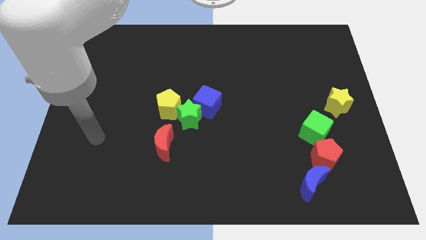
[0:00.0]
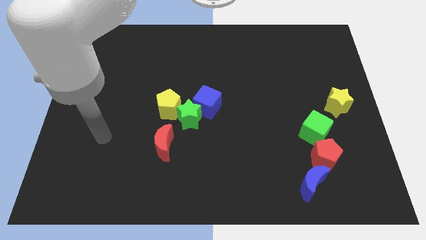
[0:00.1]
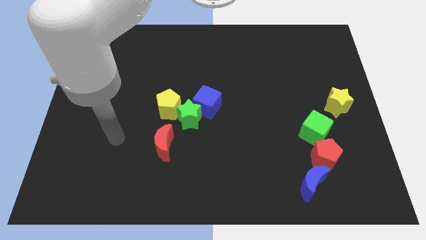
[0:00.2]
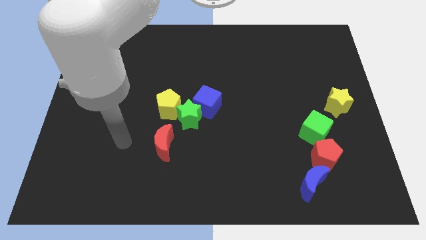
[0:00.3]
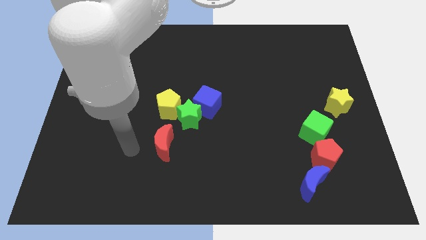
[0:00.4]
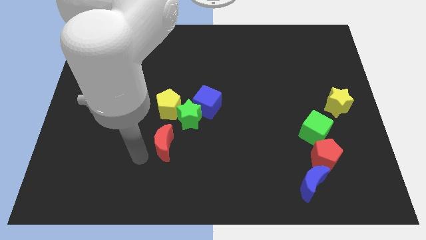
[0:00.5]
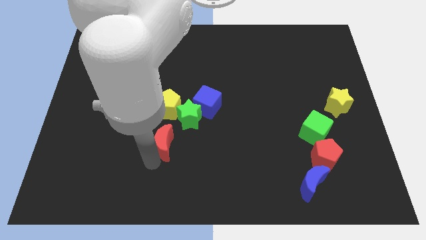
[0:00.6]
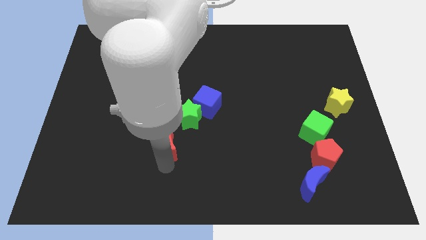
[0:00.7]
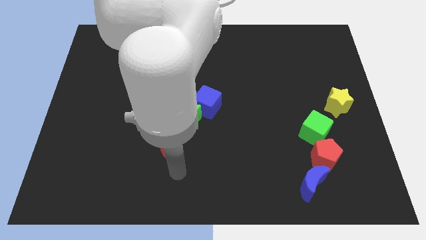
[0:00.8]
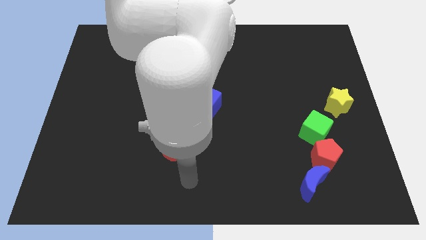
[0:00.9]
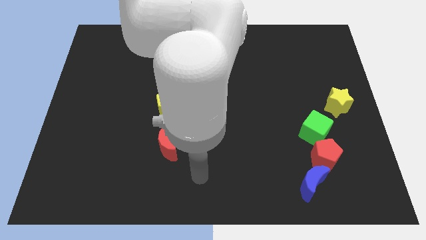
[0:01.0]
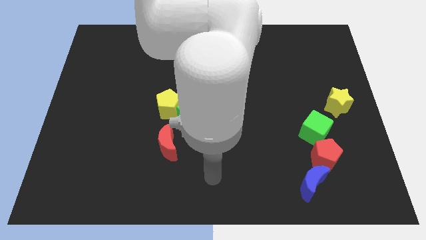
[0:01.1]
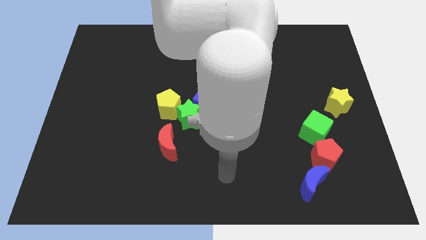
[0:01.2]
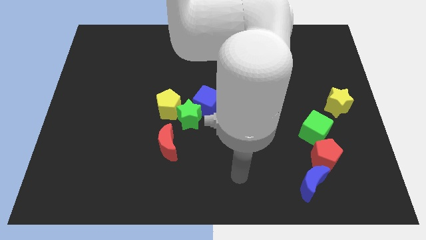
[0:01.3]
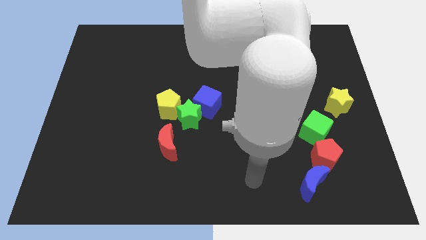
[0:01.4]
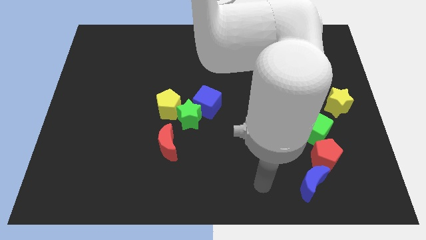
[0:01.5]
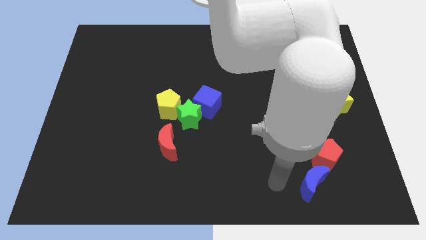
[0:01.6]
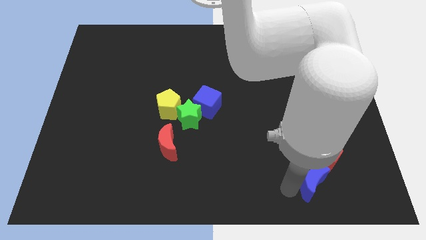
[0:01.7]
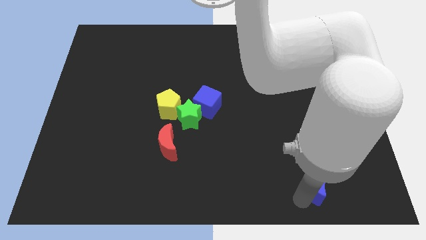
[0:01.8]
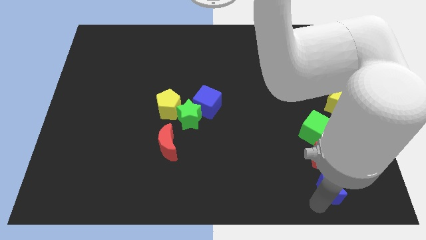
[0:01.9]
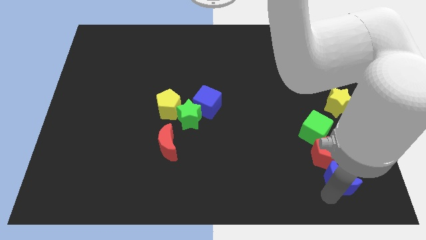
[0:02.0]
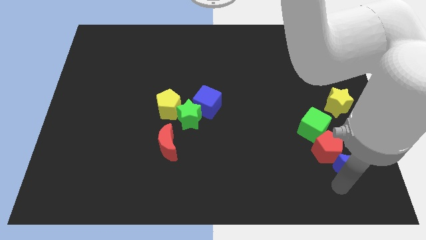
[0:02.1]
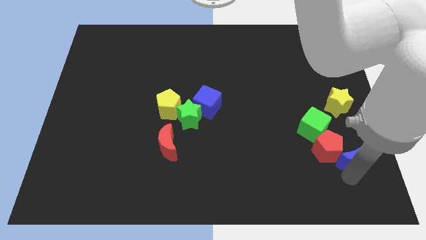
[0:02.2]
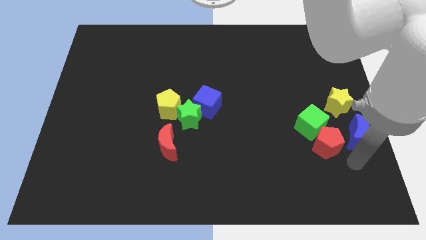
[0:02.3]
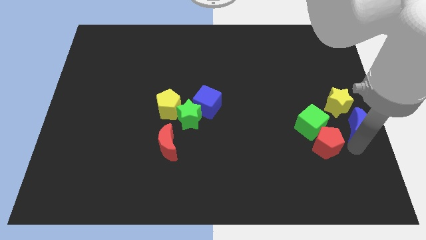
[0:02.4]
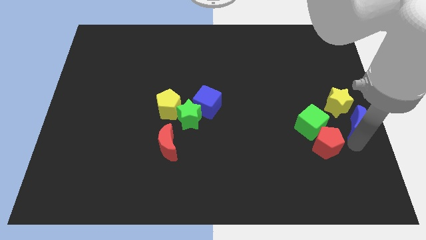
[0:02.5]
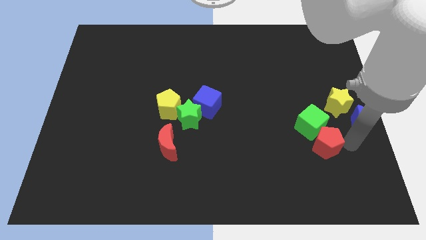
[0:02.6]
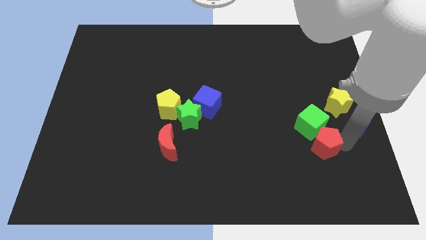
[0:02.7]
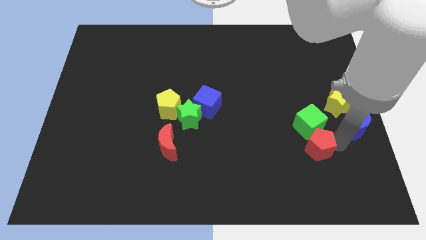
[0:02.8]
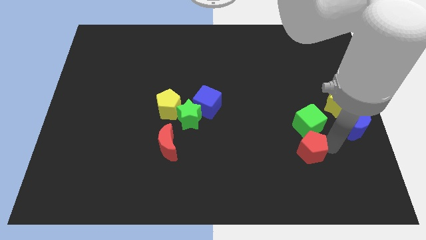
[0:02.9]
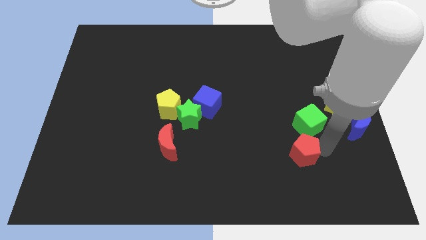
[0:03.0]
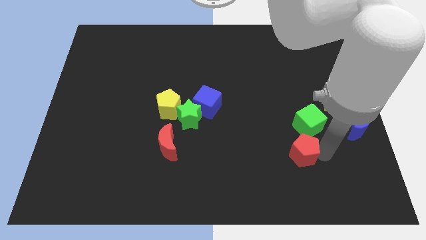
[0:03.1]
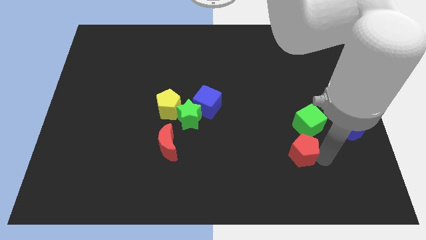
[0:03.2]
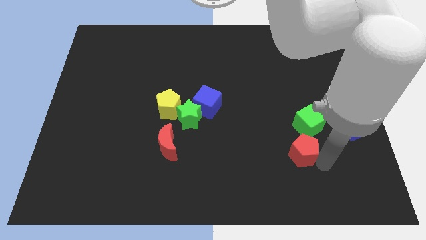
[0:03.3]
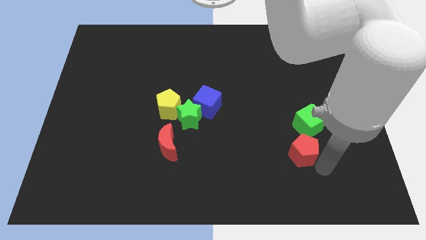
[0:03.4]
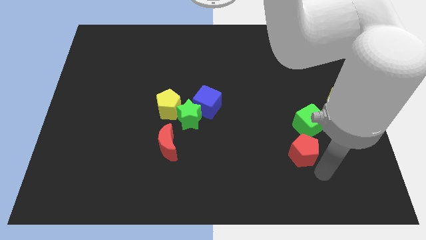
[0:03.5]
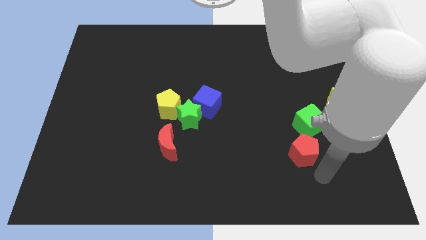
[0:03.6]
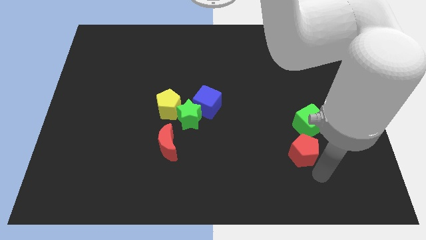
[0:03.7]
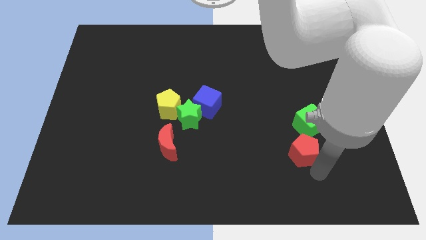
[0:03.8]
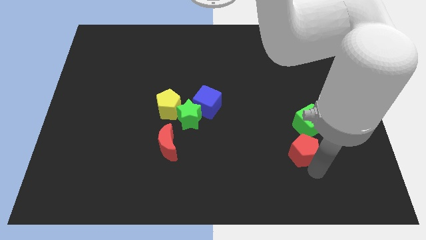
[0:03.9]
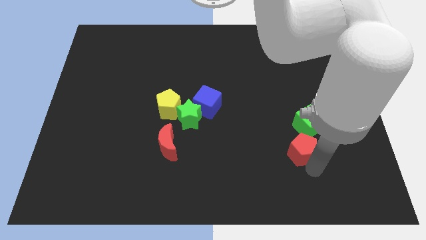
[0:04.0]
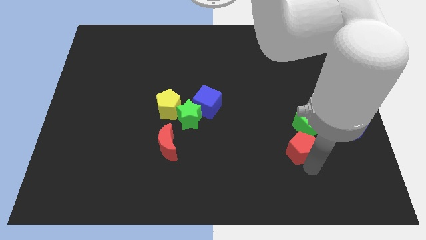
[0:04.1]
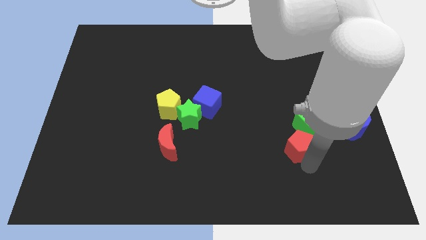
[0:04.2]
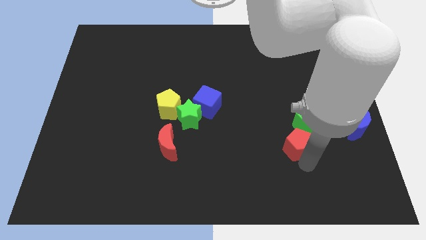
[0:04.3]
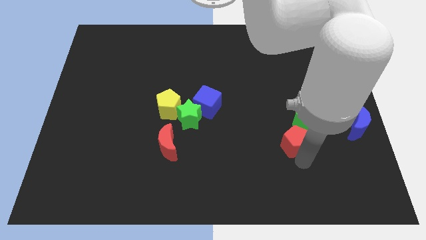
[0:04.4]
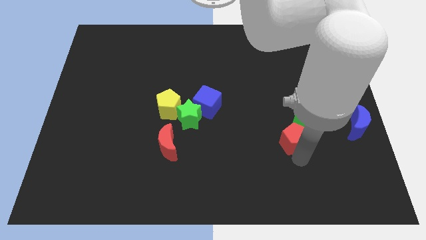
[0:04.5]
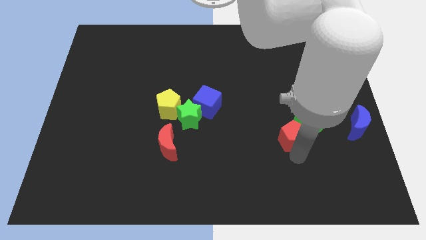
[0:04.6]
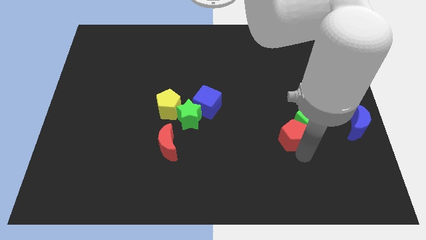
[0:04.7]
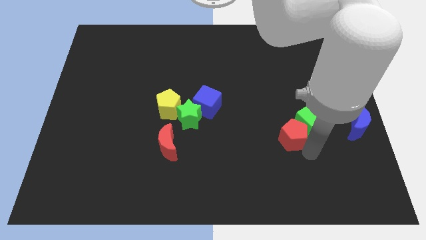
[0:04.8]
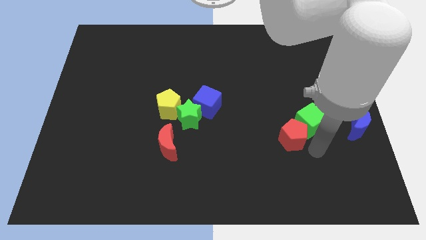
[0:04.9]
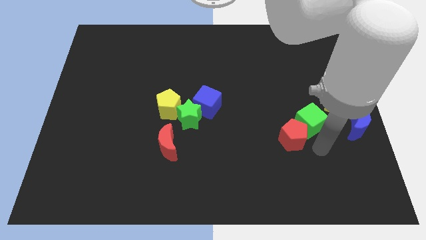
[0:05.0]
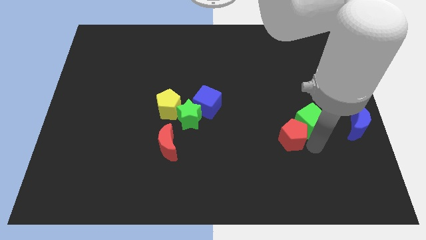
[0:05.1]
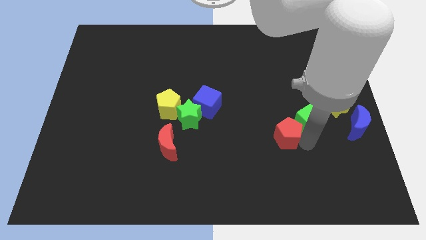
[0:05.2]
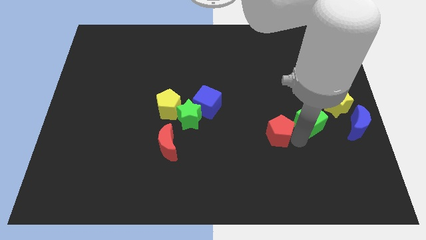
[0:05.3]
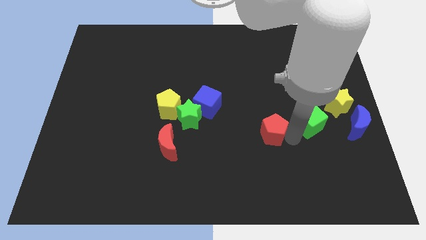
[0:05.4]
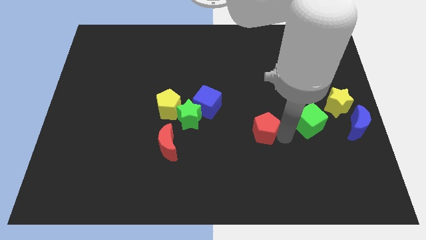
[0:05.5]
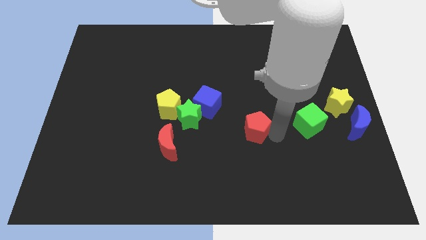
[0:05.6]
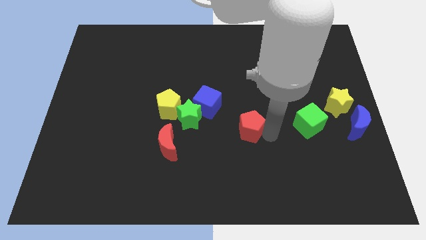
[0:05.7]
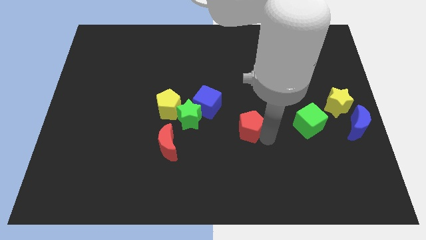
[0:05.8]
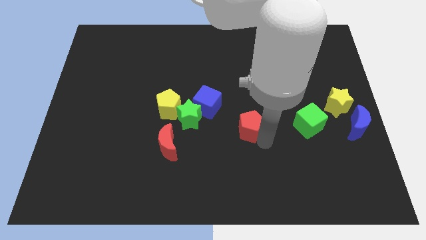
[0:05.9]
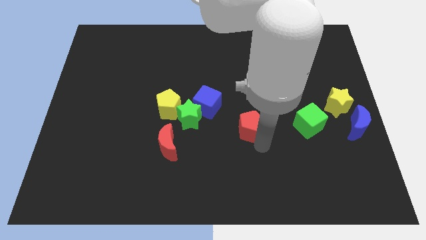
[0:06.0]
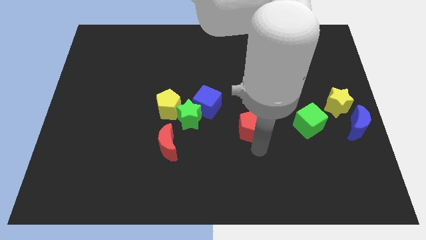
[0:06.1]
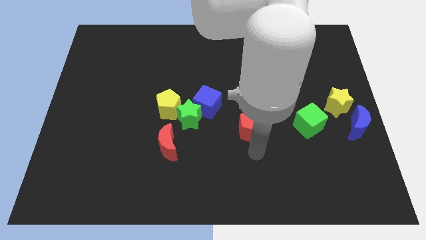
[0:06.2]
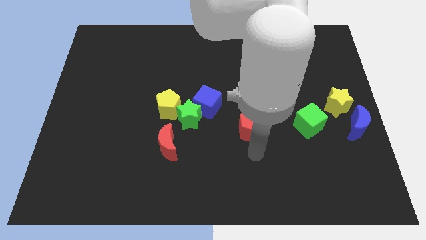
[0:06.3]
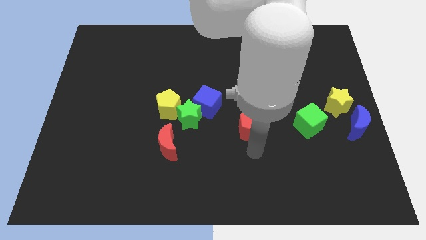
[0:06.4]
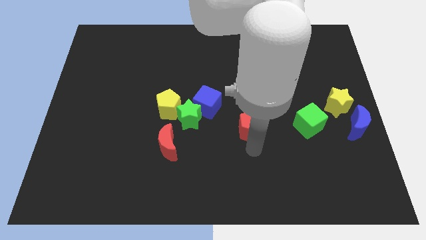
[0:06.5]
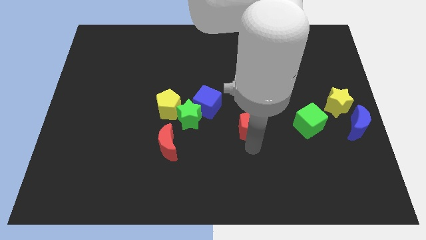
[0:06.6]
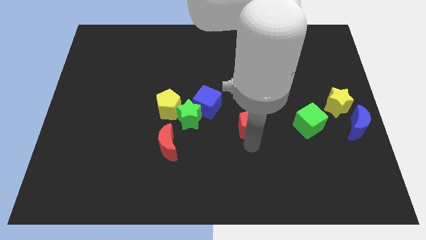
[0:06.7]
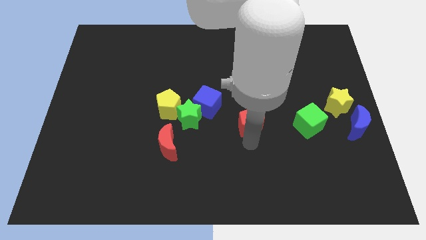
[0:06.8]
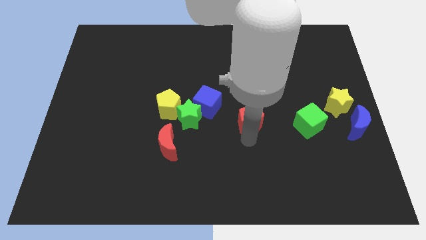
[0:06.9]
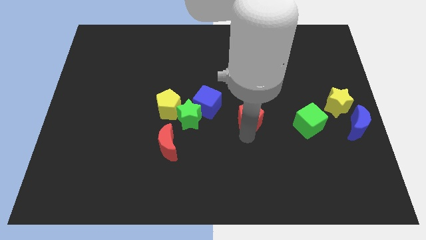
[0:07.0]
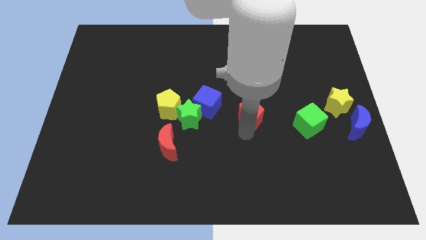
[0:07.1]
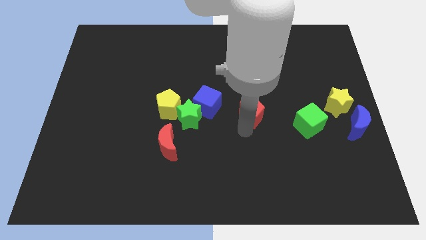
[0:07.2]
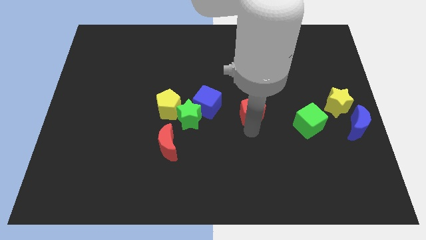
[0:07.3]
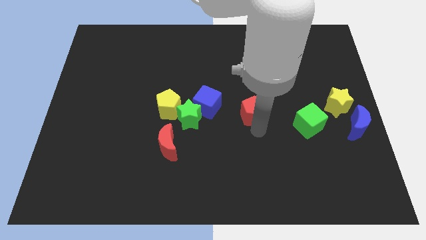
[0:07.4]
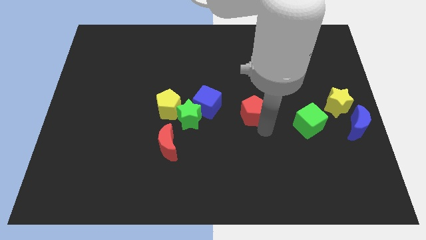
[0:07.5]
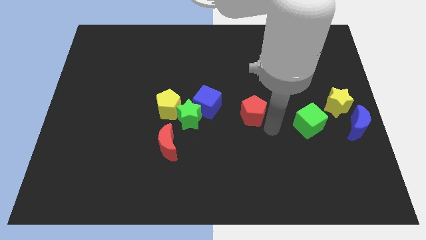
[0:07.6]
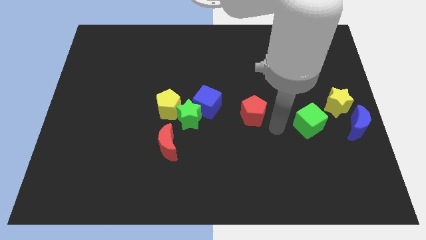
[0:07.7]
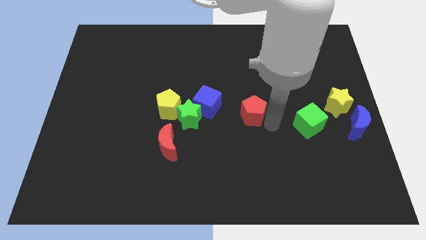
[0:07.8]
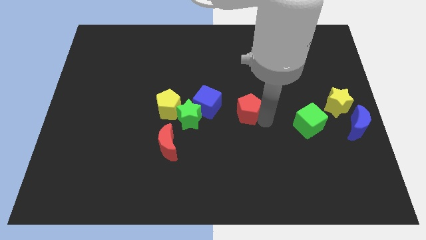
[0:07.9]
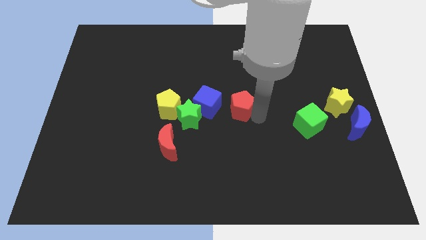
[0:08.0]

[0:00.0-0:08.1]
push the red pentagon up and then to the left
